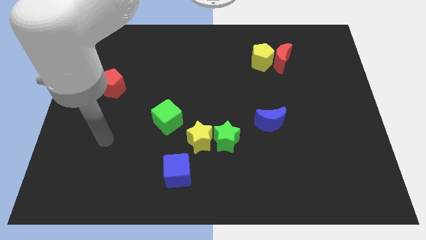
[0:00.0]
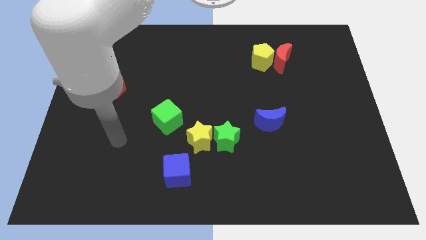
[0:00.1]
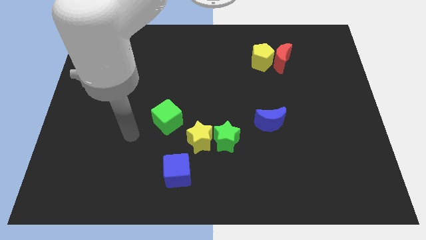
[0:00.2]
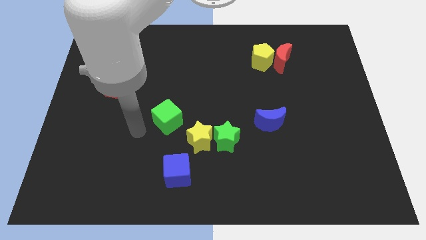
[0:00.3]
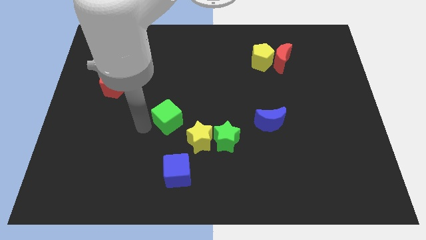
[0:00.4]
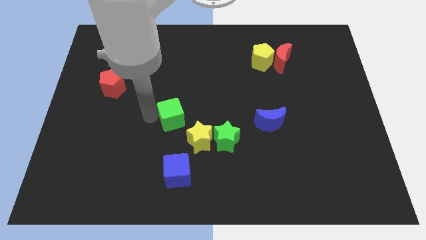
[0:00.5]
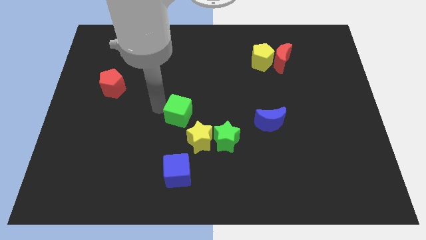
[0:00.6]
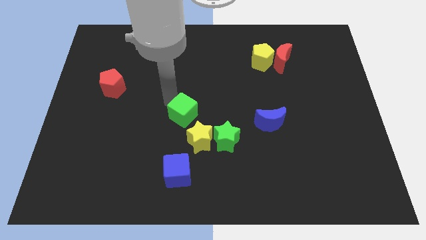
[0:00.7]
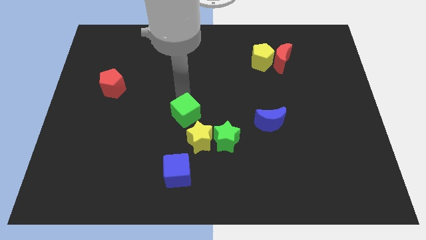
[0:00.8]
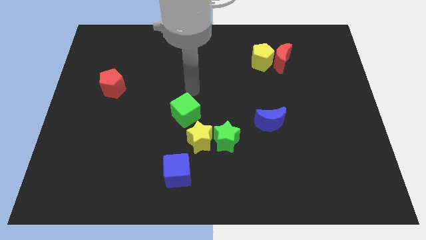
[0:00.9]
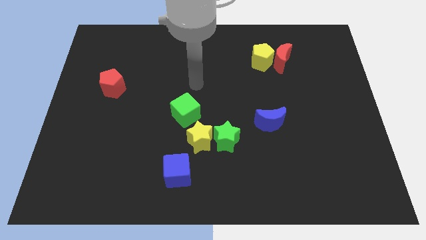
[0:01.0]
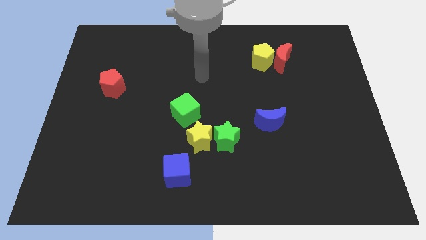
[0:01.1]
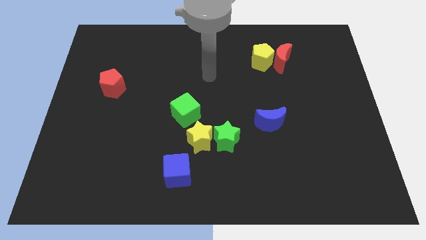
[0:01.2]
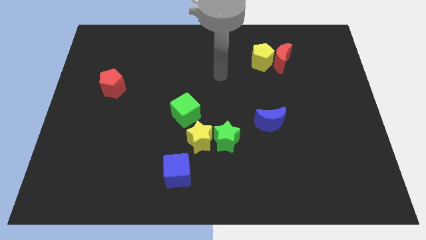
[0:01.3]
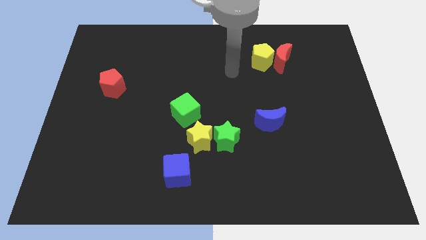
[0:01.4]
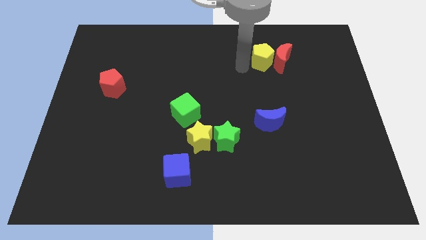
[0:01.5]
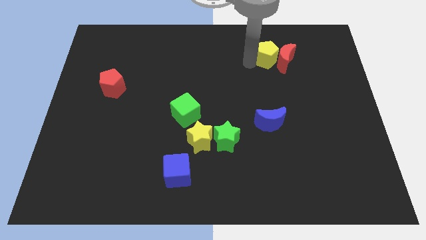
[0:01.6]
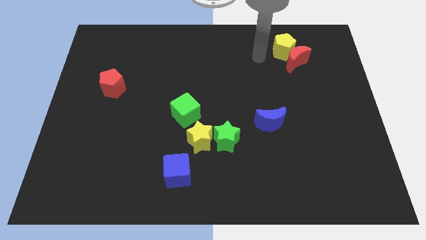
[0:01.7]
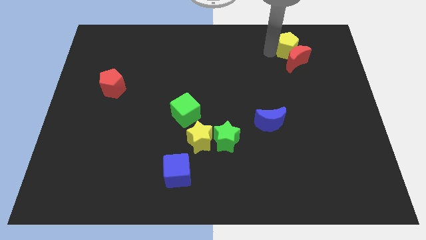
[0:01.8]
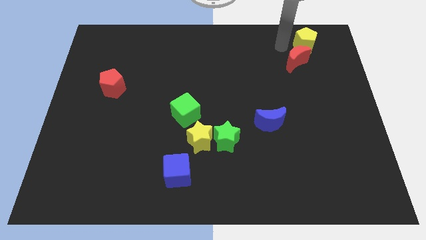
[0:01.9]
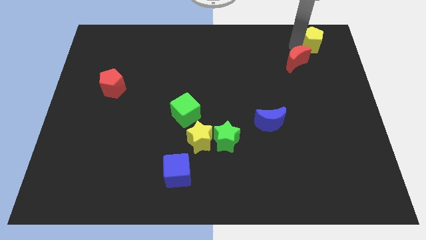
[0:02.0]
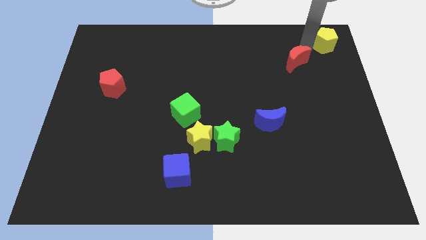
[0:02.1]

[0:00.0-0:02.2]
separate the red moon from the yellow pentagon

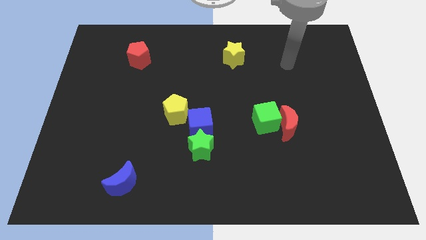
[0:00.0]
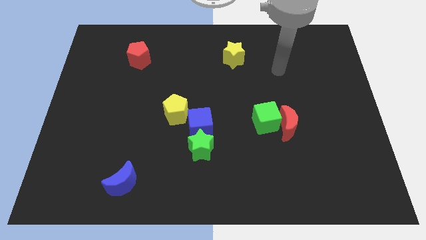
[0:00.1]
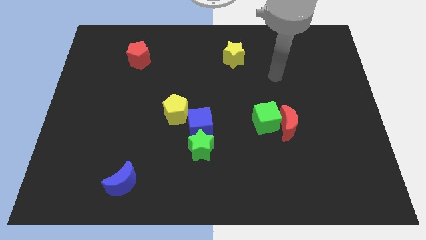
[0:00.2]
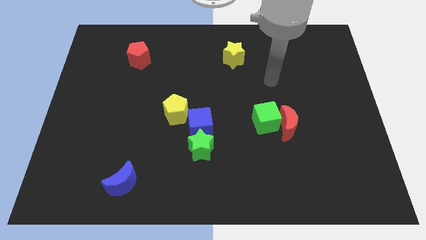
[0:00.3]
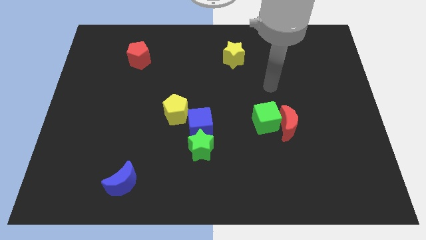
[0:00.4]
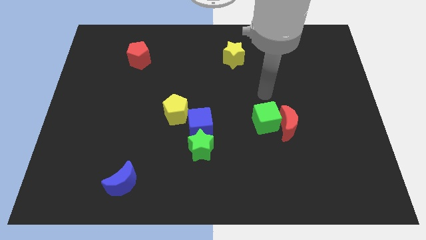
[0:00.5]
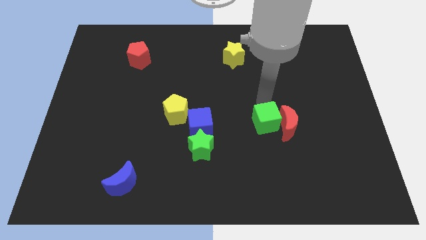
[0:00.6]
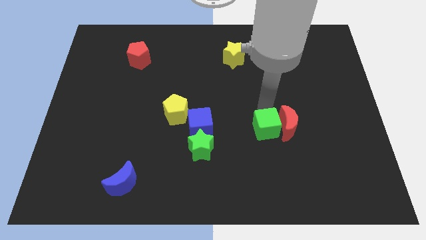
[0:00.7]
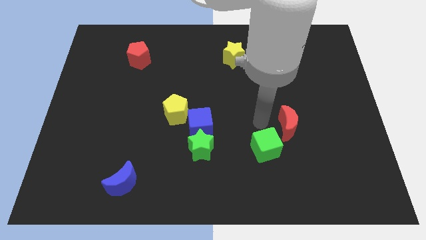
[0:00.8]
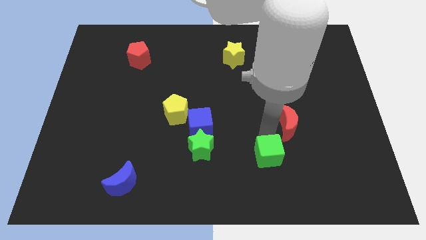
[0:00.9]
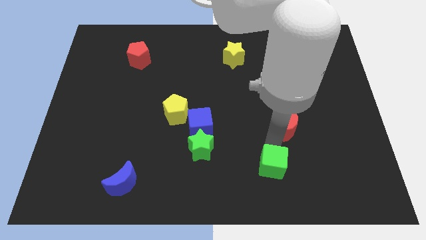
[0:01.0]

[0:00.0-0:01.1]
pull the red moon apart from the green cube

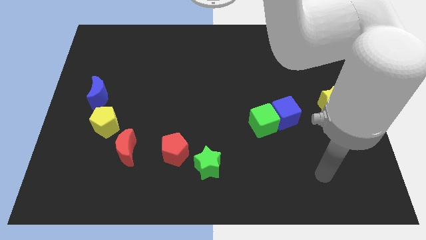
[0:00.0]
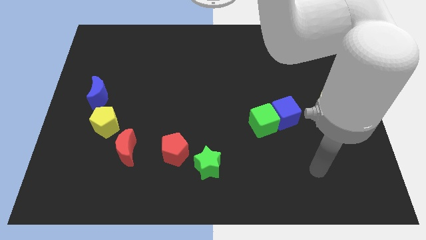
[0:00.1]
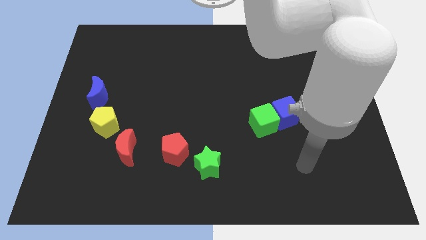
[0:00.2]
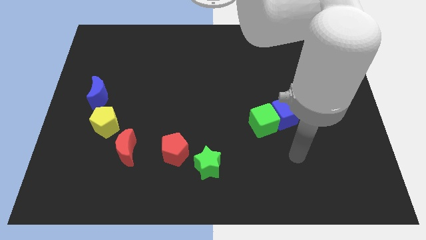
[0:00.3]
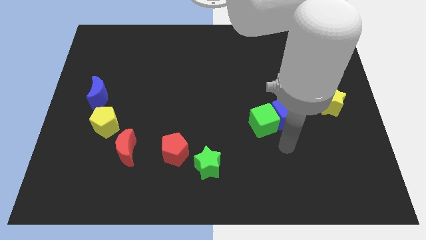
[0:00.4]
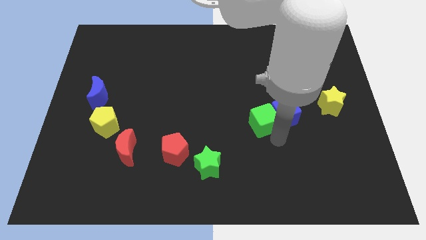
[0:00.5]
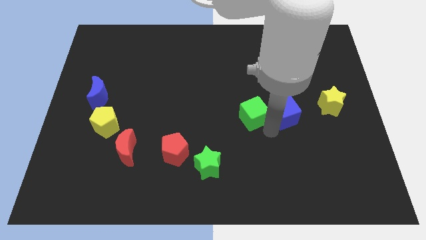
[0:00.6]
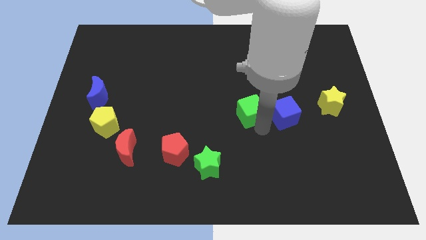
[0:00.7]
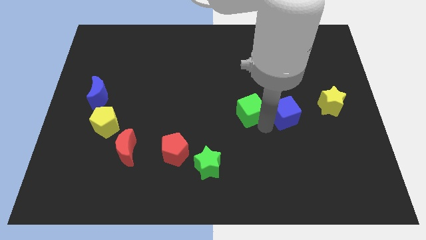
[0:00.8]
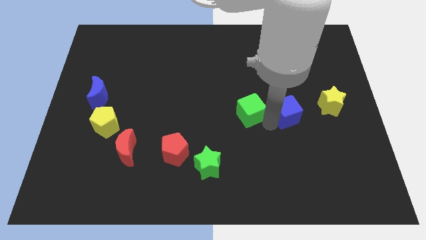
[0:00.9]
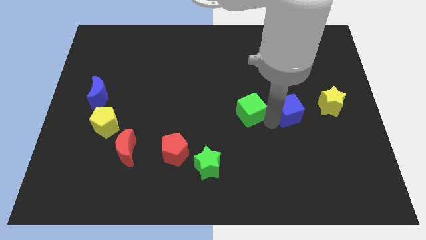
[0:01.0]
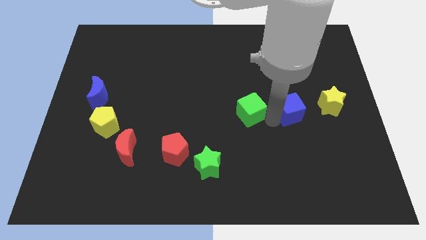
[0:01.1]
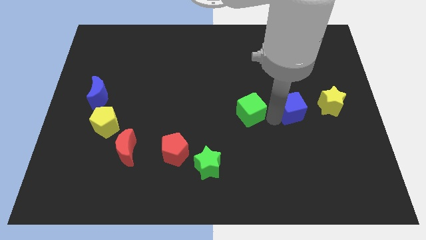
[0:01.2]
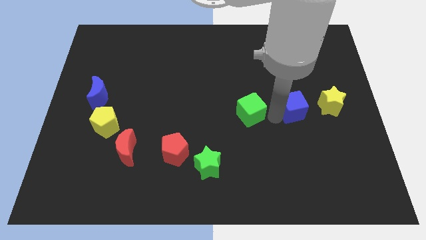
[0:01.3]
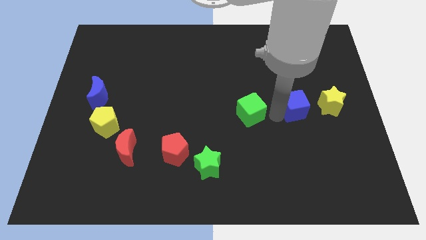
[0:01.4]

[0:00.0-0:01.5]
pull the blue cube apart from the green cube

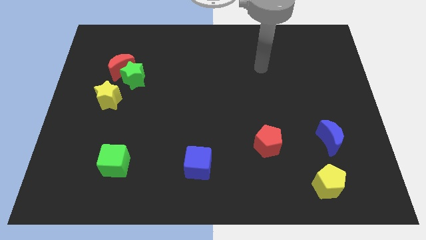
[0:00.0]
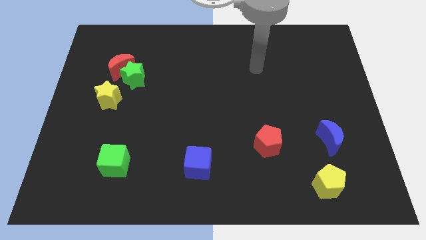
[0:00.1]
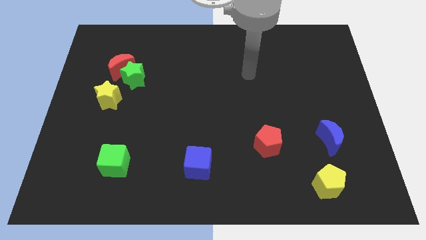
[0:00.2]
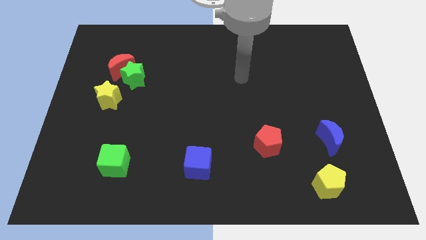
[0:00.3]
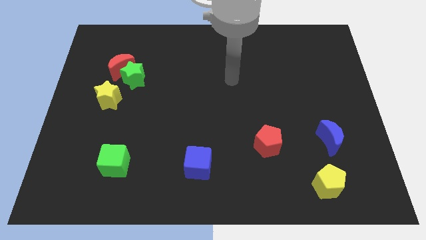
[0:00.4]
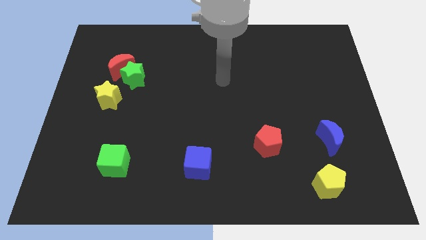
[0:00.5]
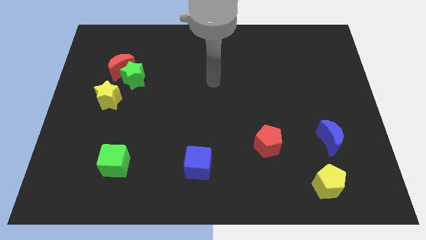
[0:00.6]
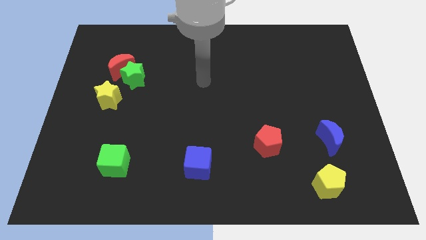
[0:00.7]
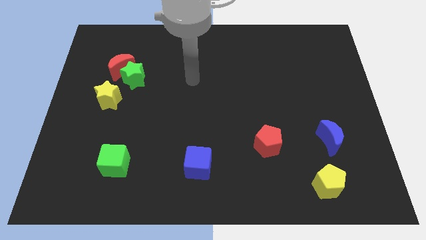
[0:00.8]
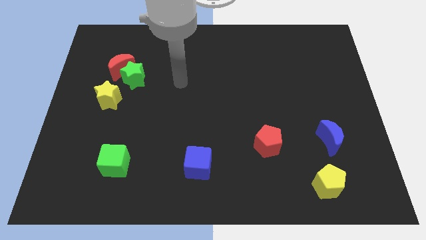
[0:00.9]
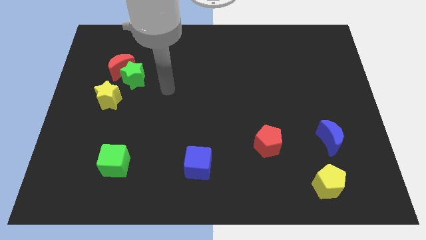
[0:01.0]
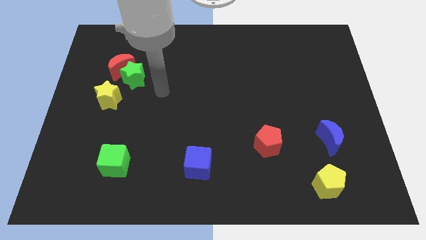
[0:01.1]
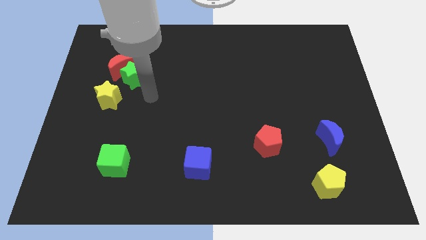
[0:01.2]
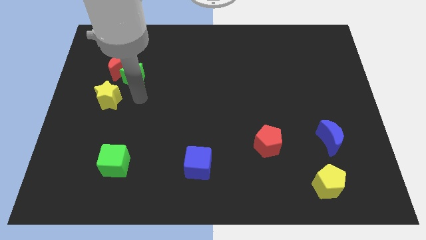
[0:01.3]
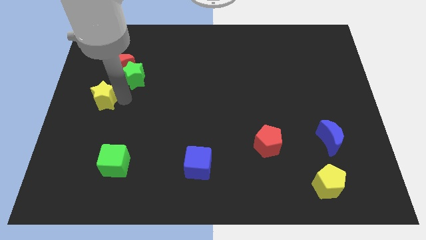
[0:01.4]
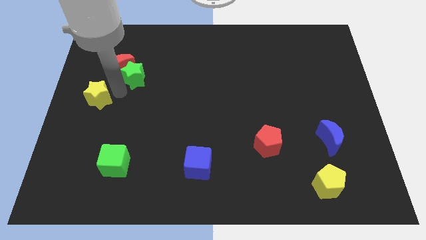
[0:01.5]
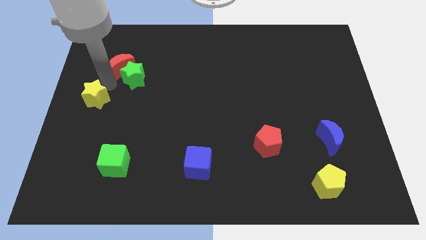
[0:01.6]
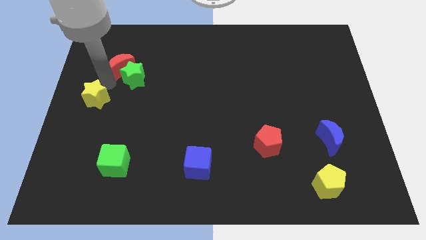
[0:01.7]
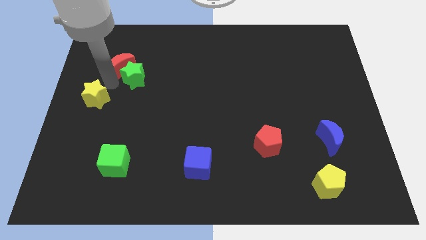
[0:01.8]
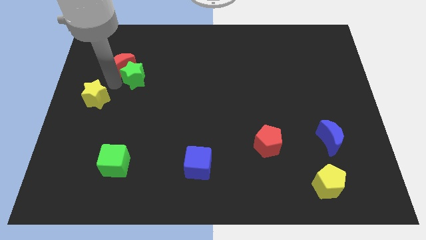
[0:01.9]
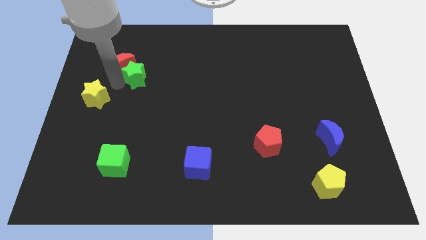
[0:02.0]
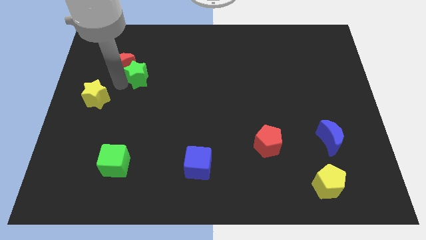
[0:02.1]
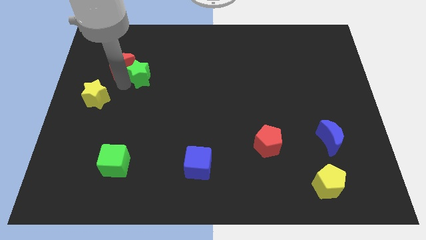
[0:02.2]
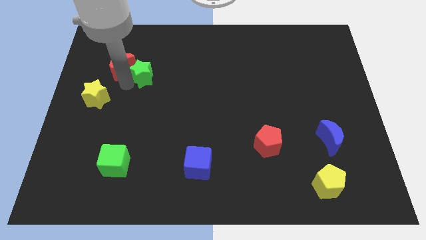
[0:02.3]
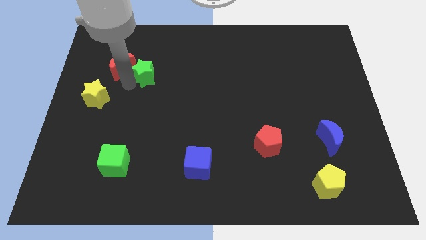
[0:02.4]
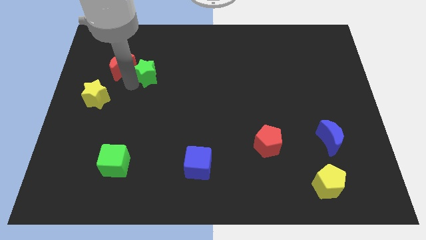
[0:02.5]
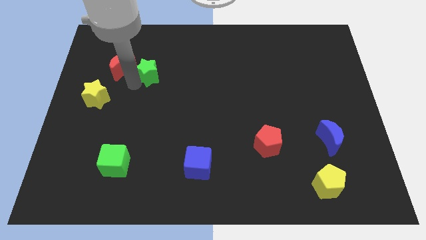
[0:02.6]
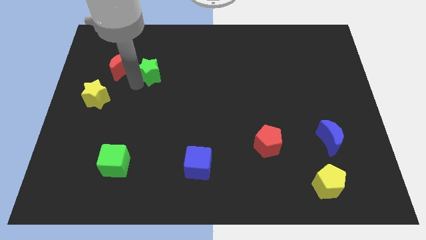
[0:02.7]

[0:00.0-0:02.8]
move the green star away from the red moon and yellow star

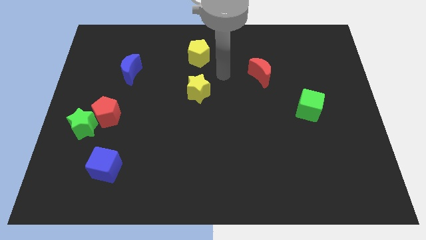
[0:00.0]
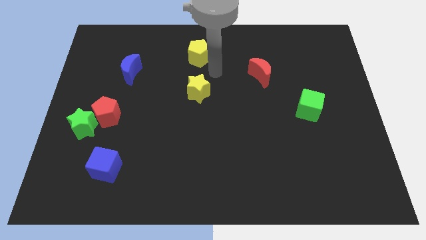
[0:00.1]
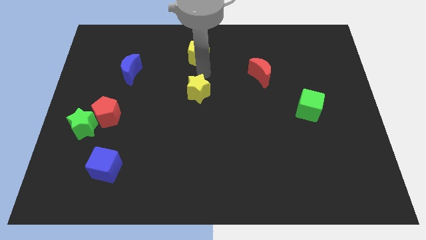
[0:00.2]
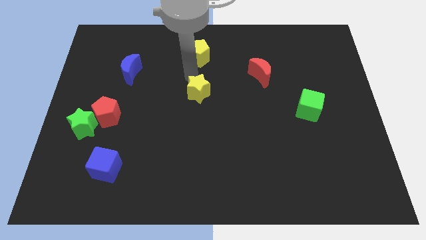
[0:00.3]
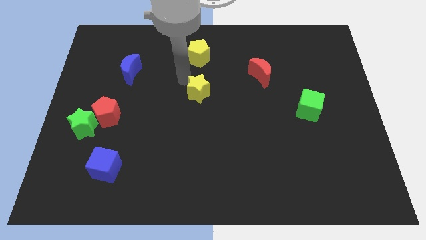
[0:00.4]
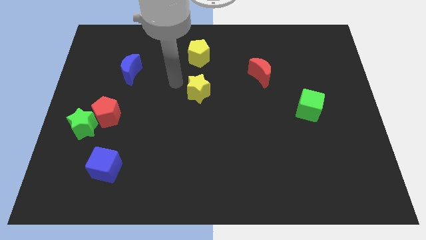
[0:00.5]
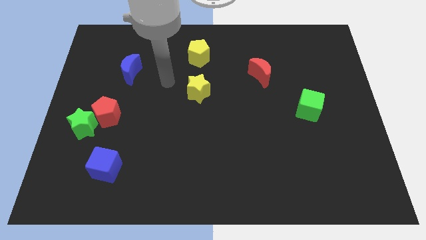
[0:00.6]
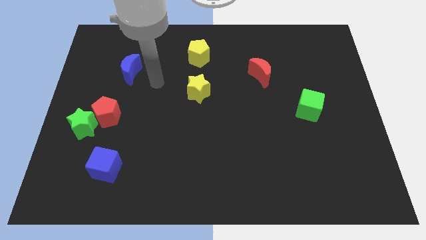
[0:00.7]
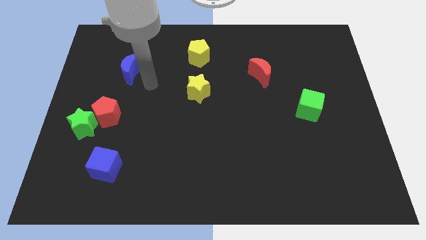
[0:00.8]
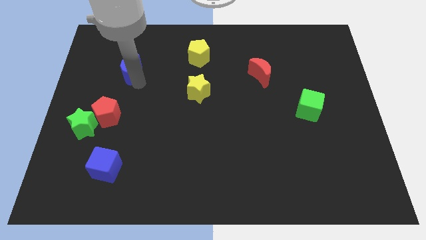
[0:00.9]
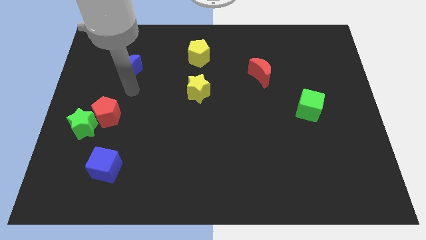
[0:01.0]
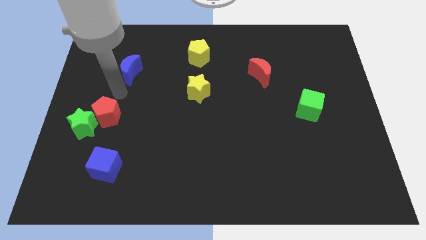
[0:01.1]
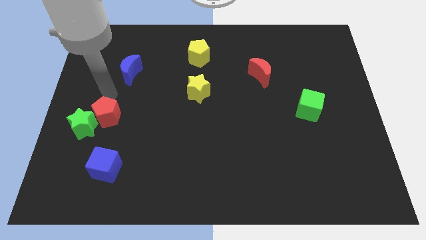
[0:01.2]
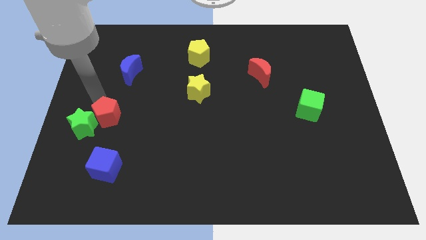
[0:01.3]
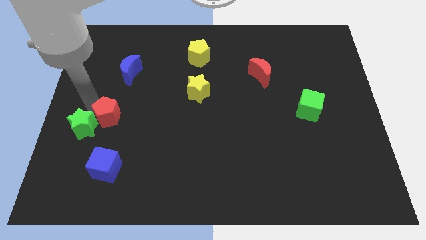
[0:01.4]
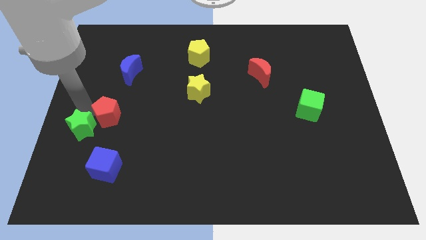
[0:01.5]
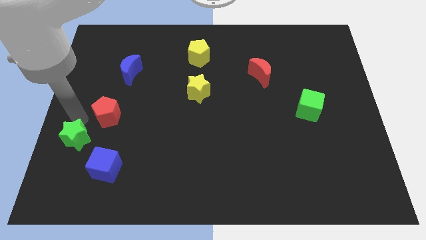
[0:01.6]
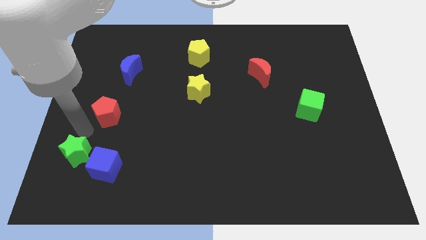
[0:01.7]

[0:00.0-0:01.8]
move the red pentagon away from the green star
